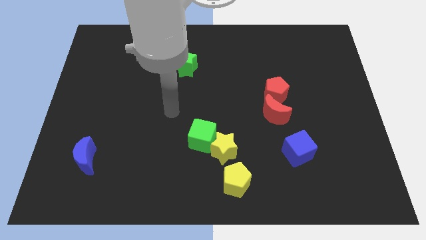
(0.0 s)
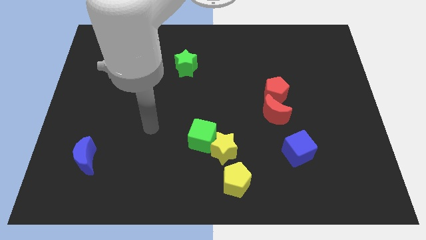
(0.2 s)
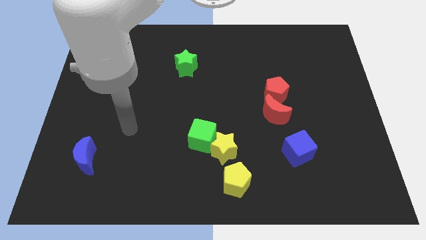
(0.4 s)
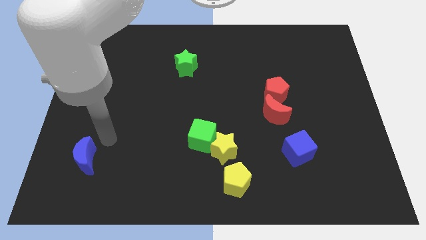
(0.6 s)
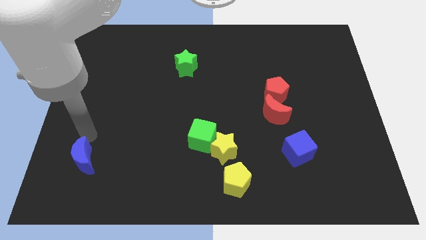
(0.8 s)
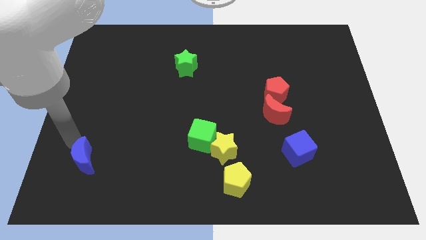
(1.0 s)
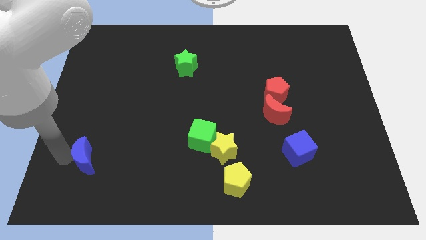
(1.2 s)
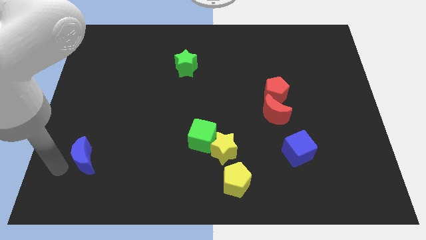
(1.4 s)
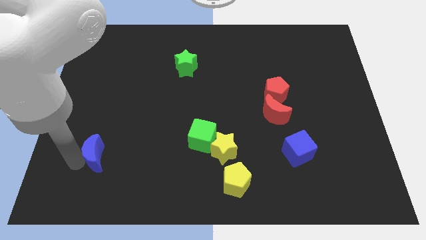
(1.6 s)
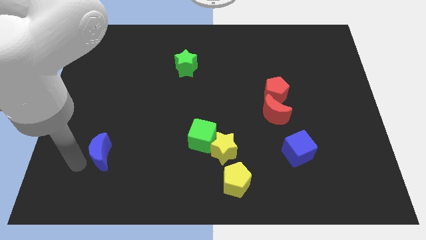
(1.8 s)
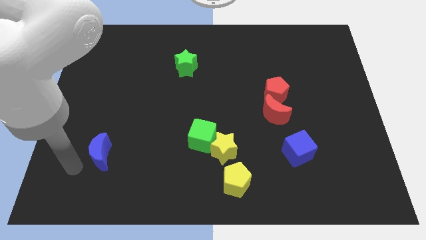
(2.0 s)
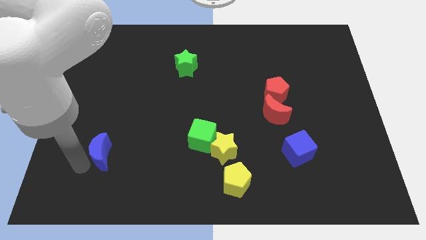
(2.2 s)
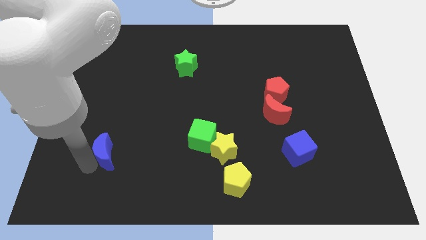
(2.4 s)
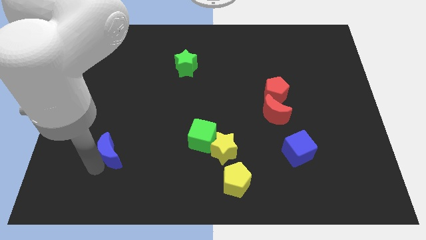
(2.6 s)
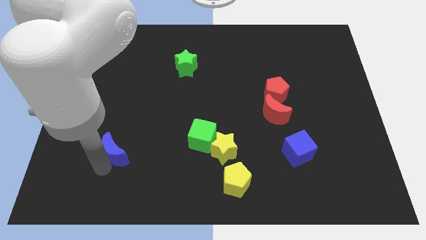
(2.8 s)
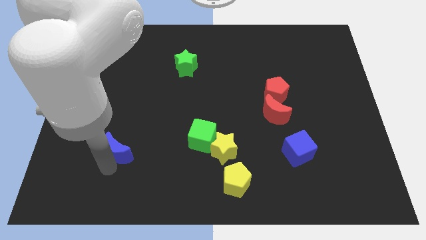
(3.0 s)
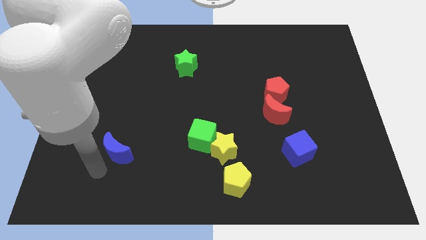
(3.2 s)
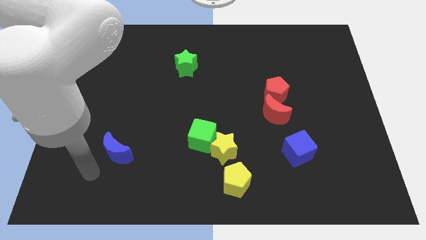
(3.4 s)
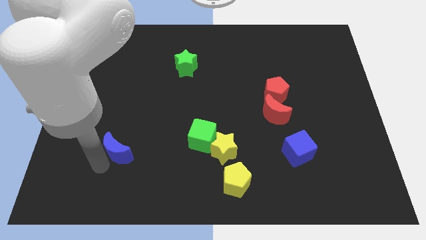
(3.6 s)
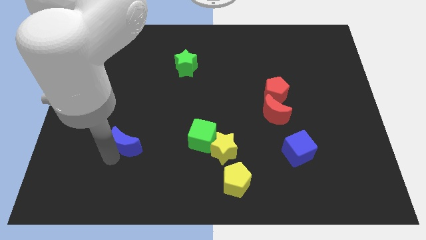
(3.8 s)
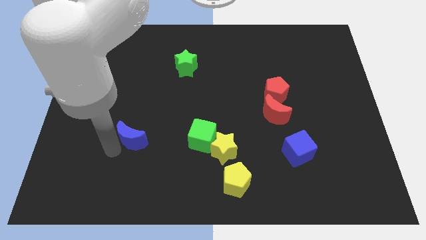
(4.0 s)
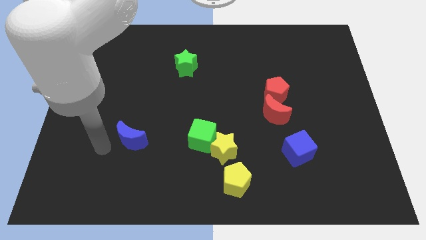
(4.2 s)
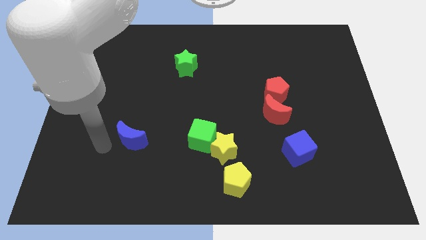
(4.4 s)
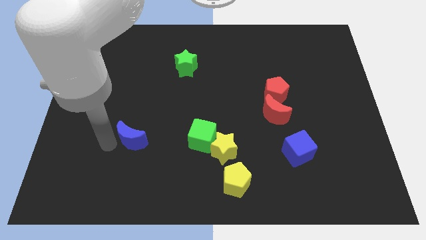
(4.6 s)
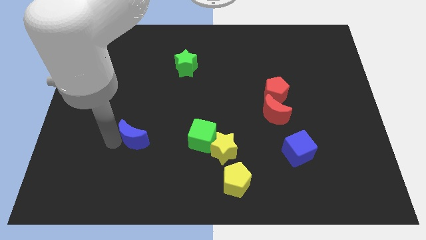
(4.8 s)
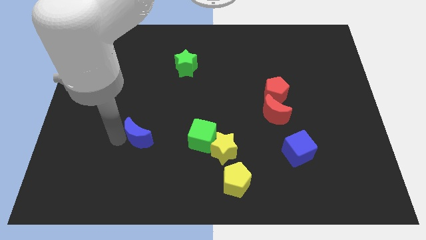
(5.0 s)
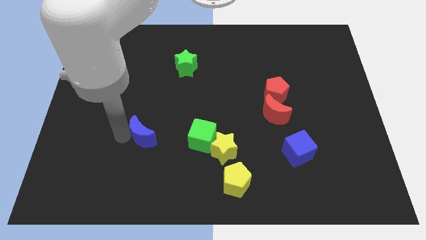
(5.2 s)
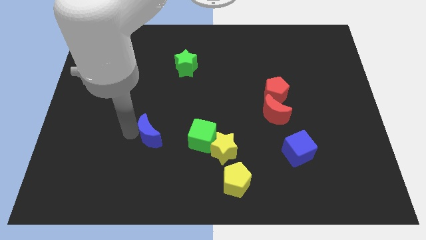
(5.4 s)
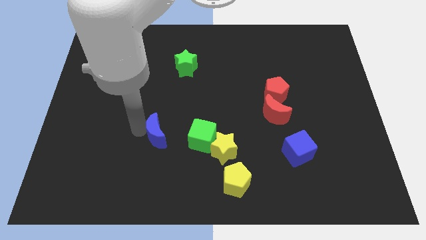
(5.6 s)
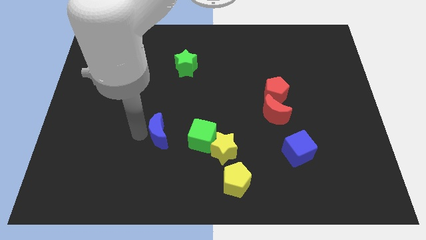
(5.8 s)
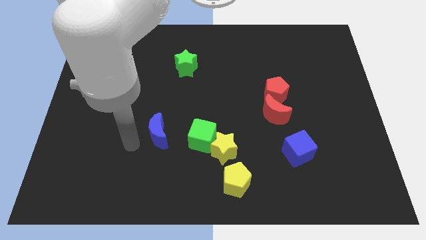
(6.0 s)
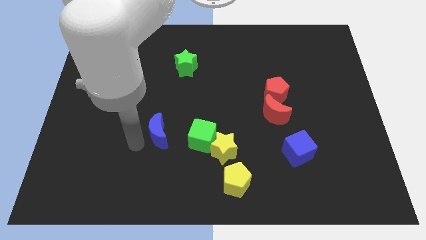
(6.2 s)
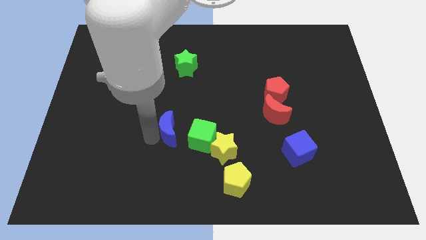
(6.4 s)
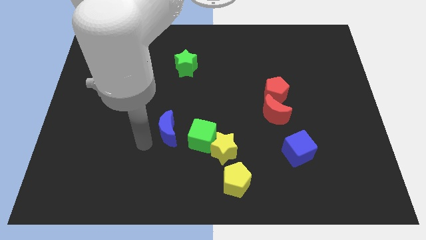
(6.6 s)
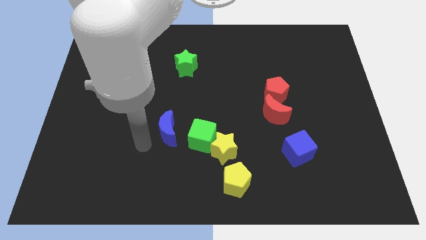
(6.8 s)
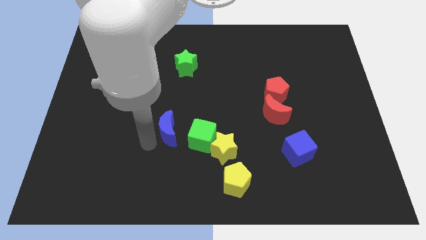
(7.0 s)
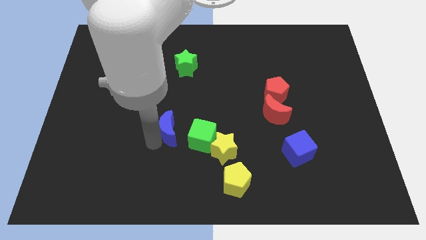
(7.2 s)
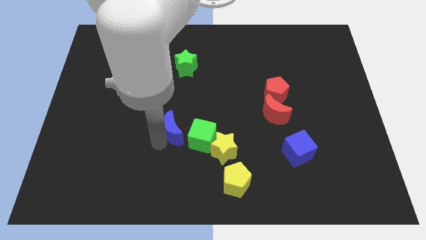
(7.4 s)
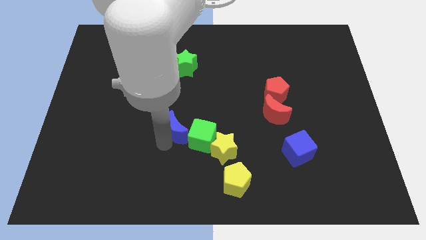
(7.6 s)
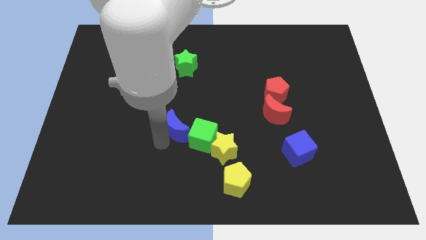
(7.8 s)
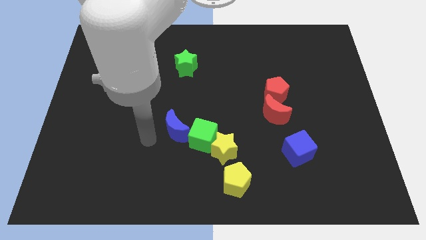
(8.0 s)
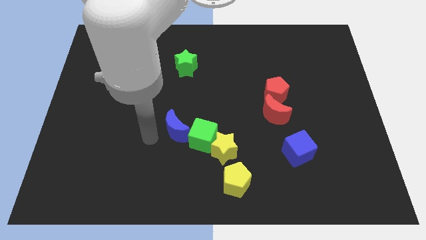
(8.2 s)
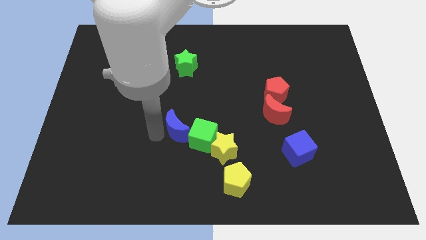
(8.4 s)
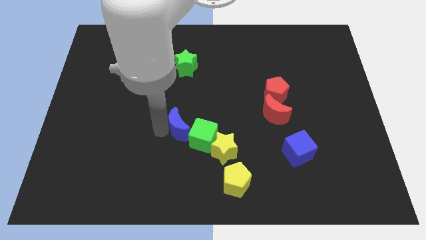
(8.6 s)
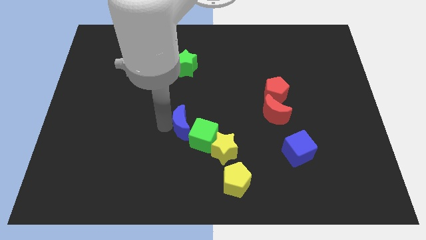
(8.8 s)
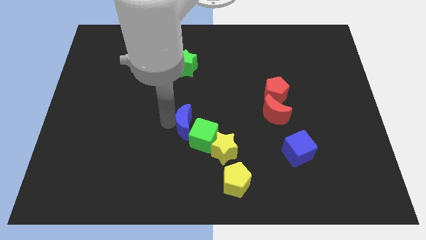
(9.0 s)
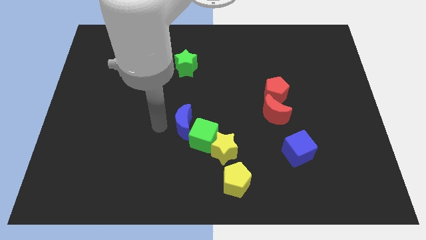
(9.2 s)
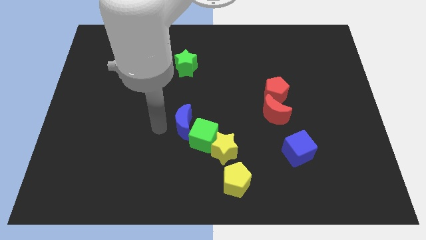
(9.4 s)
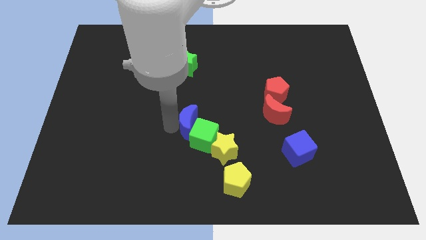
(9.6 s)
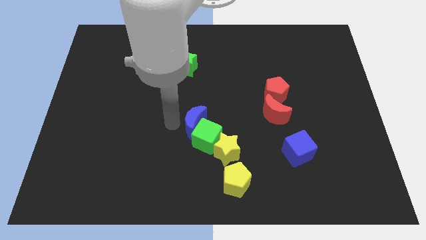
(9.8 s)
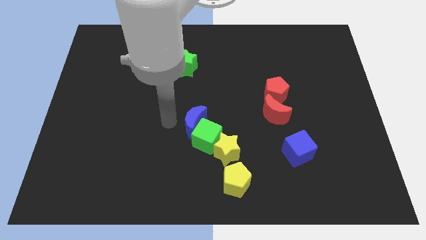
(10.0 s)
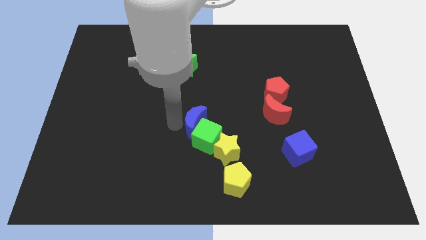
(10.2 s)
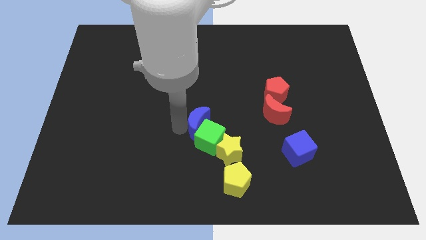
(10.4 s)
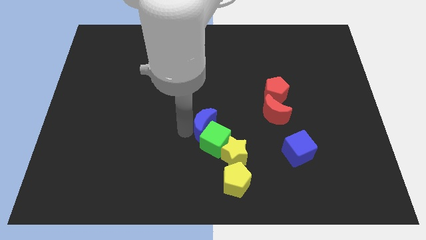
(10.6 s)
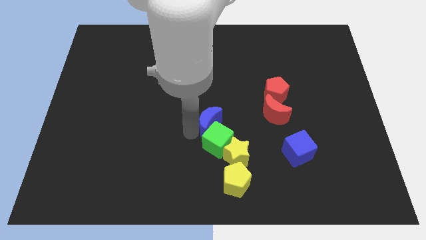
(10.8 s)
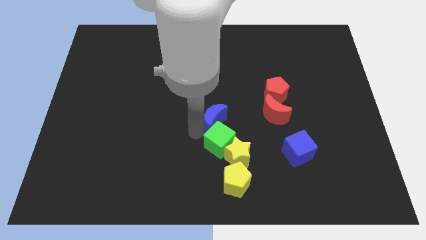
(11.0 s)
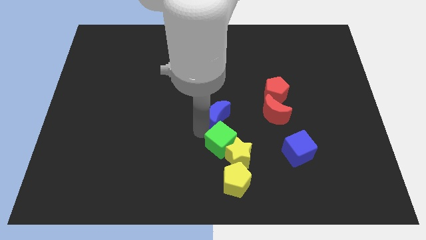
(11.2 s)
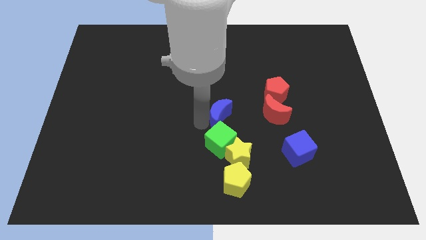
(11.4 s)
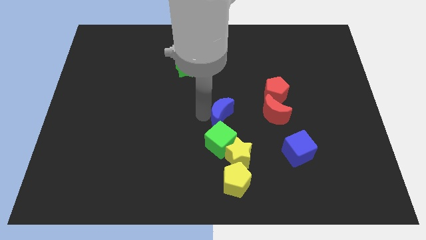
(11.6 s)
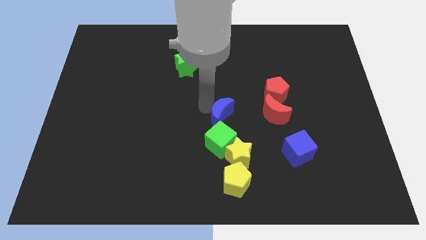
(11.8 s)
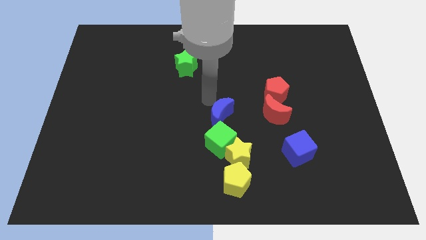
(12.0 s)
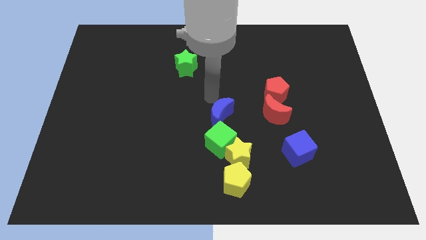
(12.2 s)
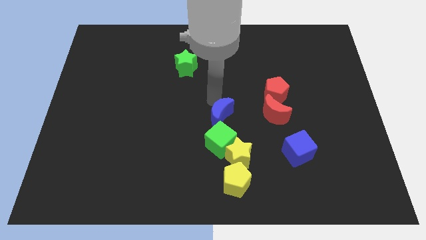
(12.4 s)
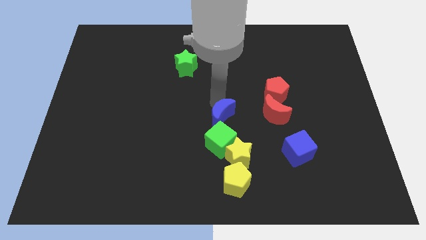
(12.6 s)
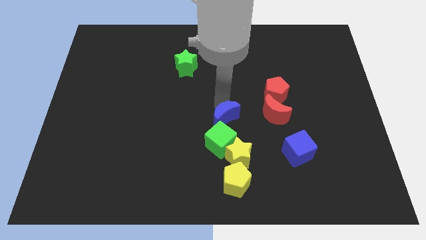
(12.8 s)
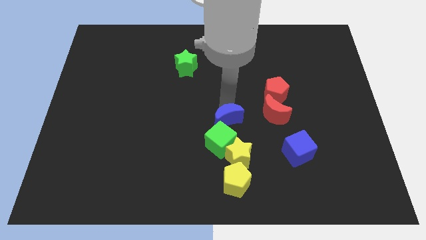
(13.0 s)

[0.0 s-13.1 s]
push the blue moon to the top side of the yellow pentagon

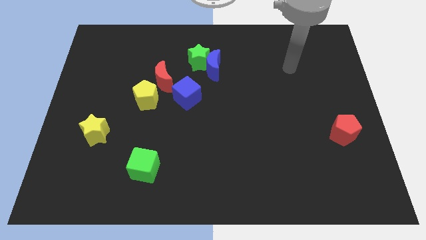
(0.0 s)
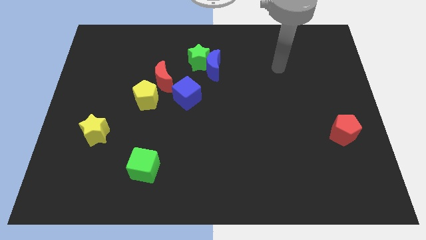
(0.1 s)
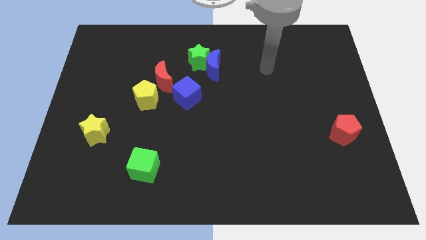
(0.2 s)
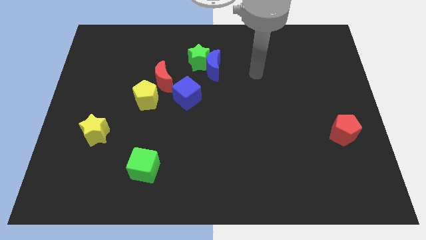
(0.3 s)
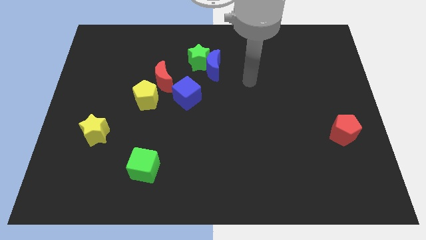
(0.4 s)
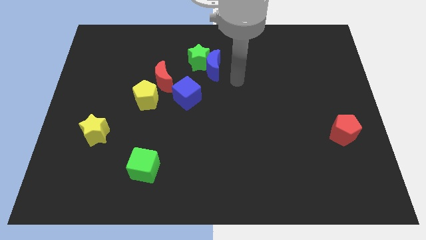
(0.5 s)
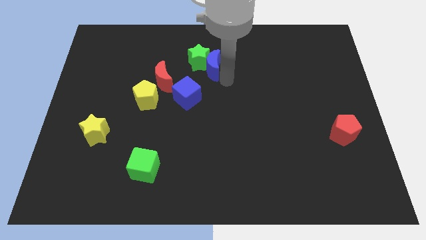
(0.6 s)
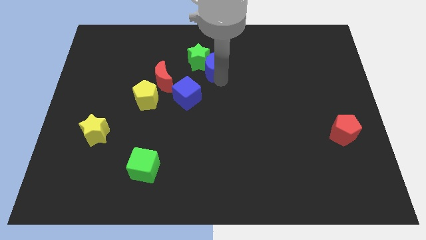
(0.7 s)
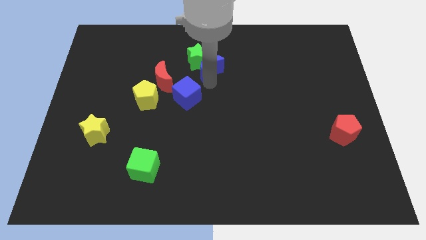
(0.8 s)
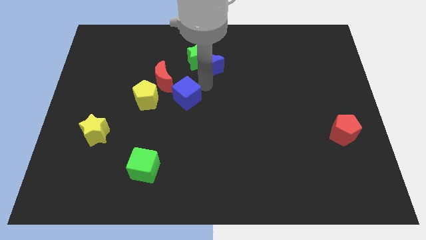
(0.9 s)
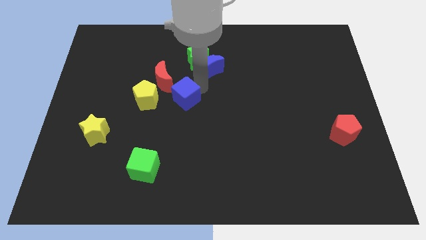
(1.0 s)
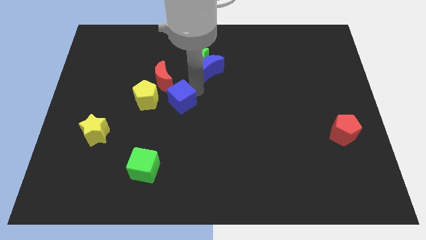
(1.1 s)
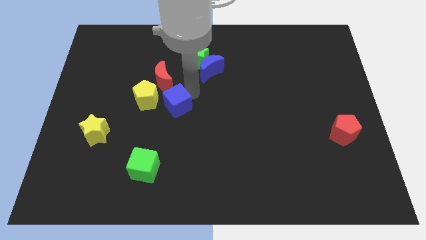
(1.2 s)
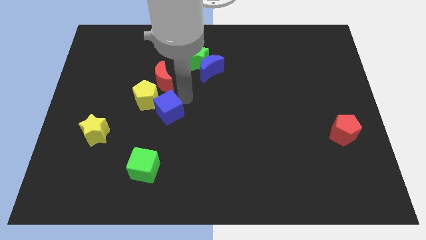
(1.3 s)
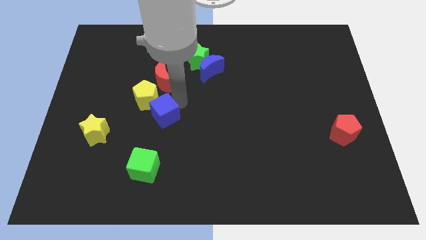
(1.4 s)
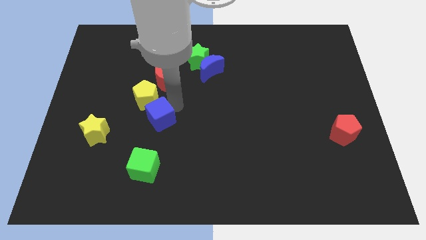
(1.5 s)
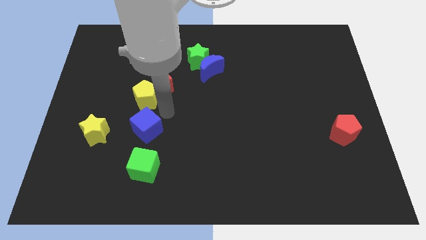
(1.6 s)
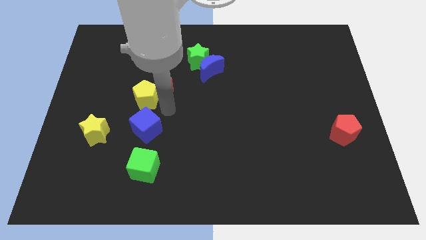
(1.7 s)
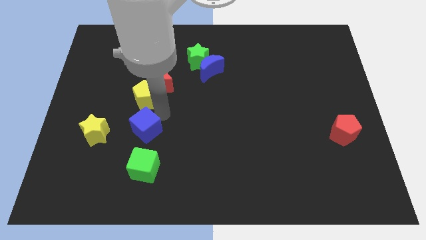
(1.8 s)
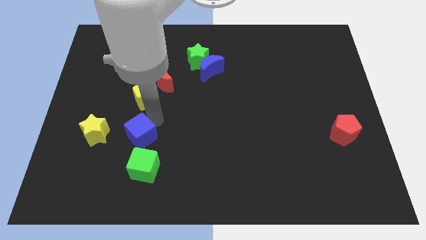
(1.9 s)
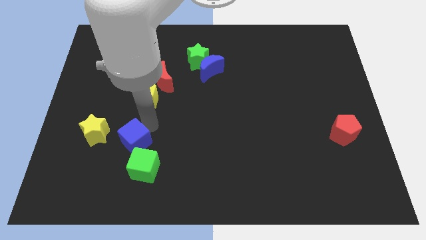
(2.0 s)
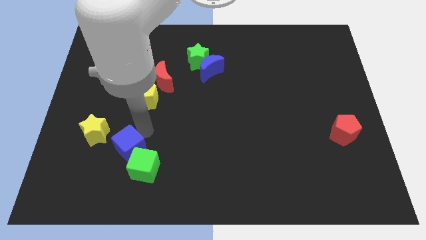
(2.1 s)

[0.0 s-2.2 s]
put the blue cube diagonally down and to the right of the yellow star
